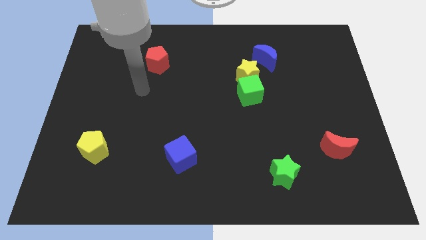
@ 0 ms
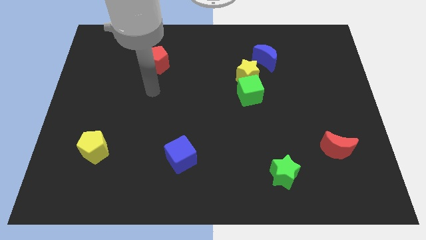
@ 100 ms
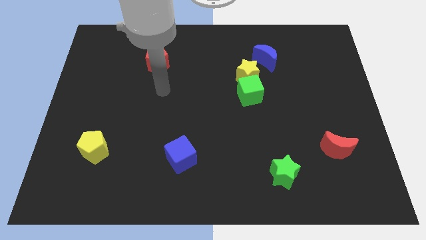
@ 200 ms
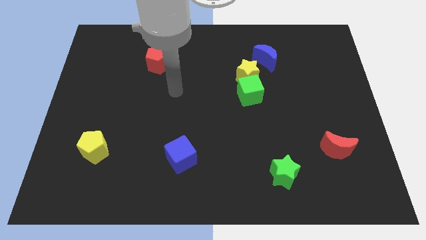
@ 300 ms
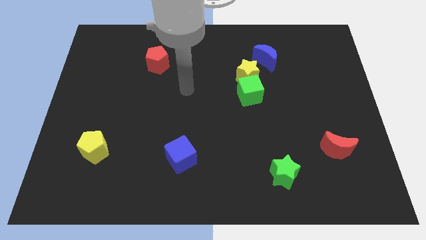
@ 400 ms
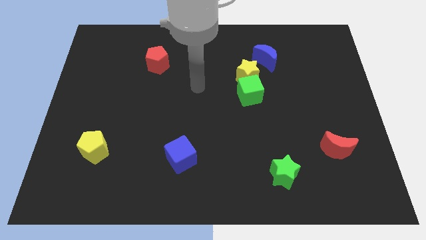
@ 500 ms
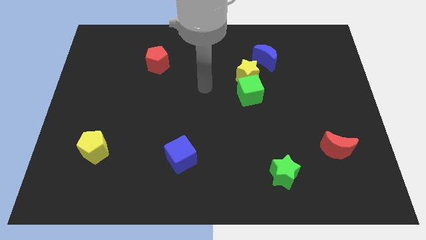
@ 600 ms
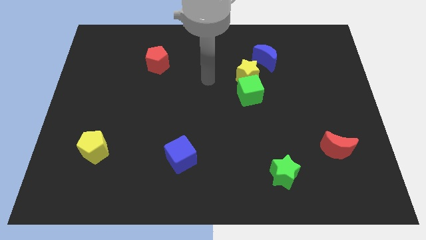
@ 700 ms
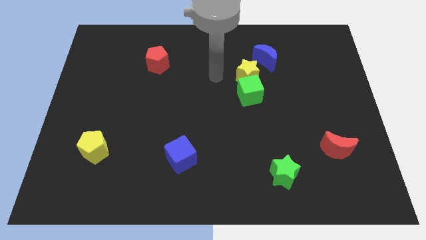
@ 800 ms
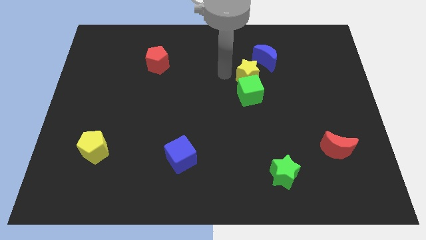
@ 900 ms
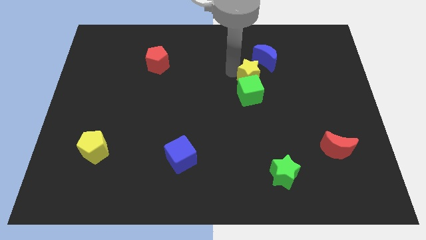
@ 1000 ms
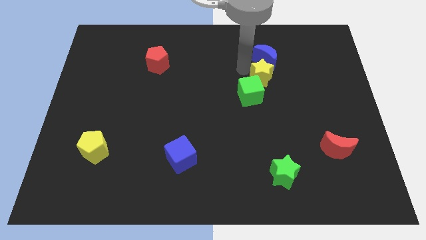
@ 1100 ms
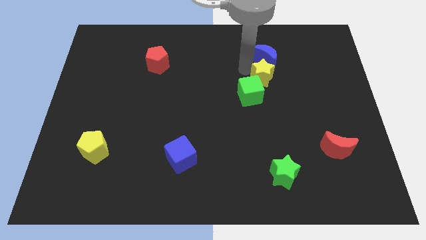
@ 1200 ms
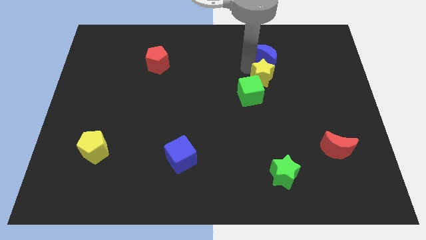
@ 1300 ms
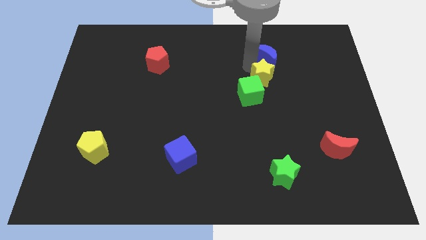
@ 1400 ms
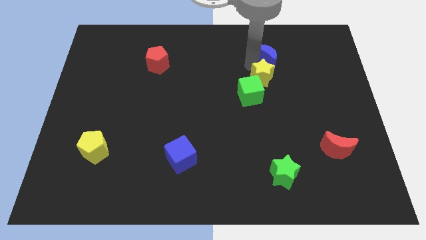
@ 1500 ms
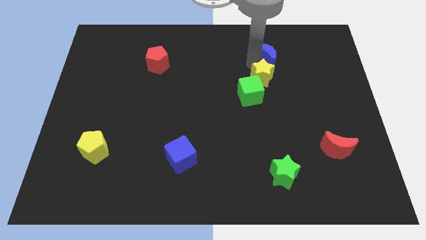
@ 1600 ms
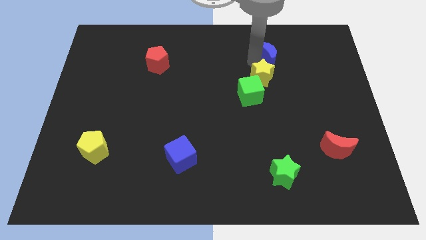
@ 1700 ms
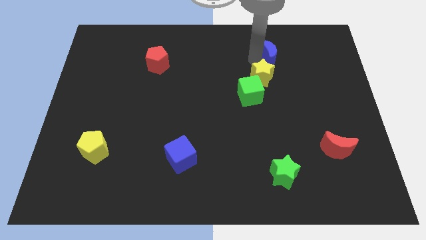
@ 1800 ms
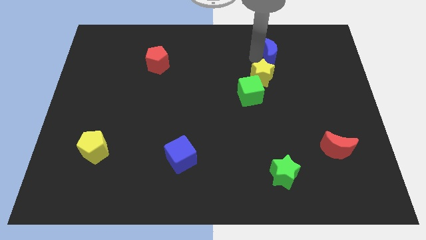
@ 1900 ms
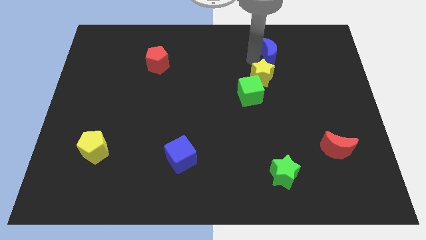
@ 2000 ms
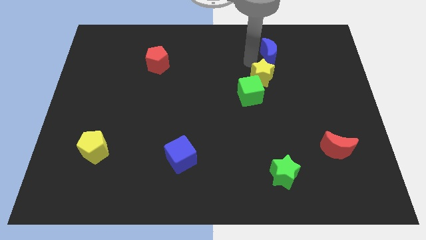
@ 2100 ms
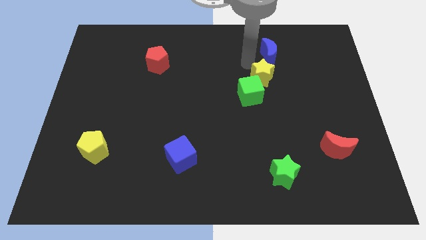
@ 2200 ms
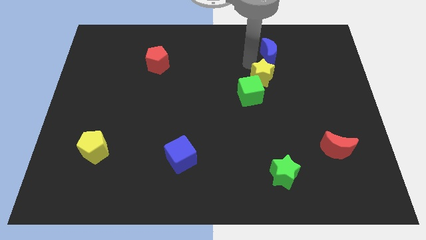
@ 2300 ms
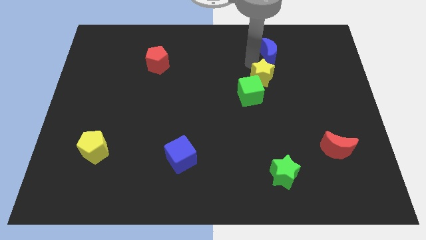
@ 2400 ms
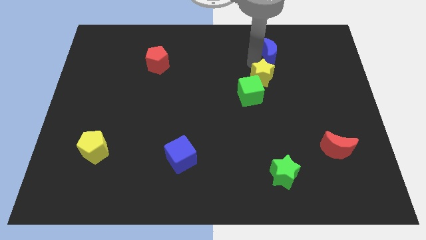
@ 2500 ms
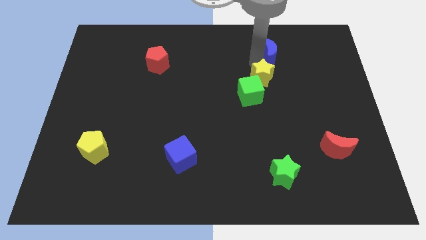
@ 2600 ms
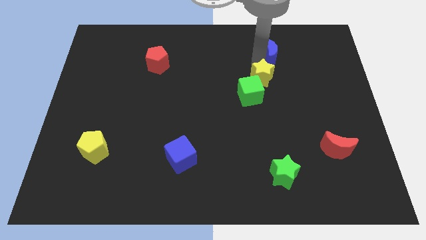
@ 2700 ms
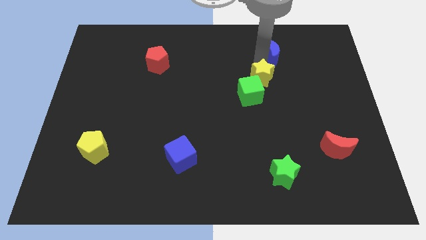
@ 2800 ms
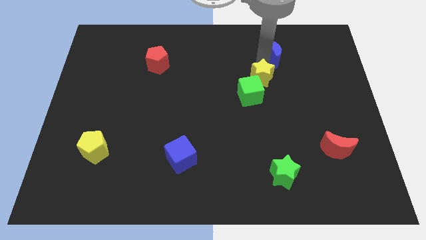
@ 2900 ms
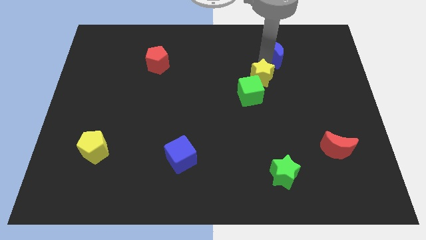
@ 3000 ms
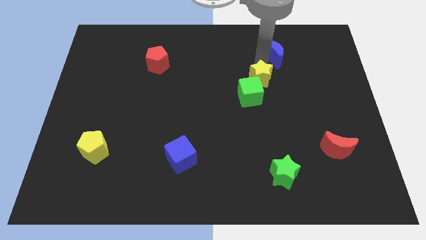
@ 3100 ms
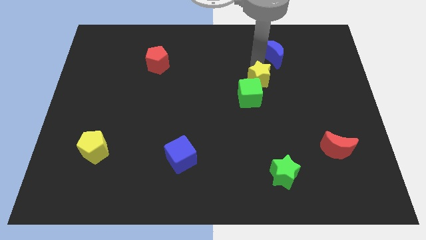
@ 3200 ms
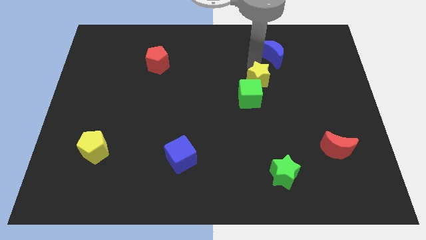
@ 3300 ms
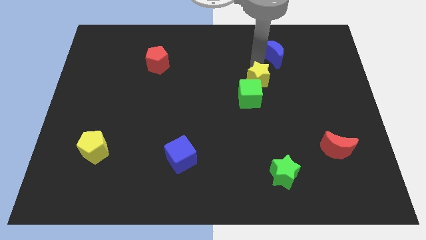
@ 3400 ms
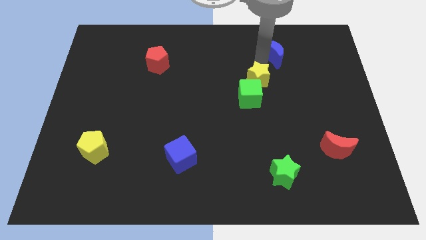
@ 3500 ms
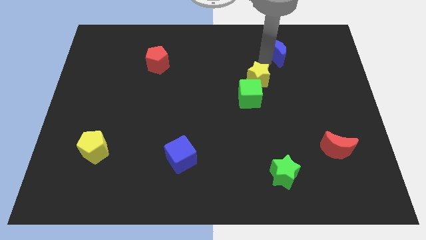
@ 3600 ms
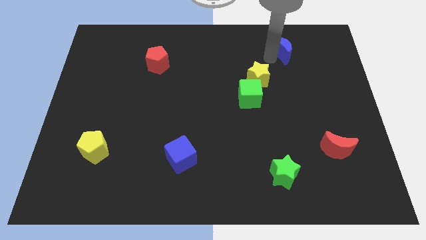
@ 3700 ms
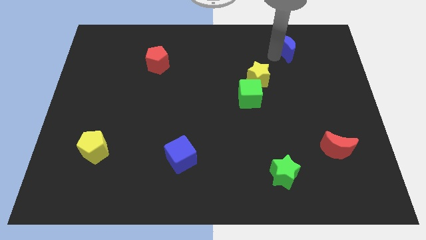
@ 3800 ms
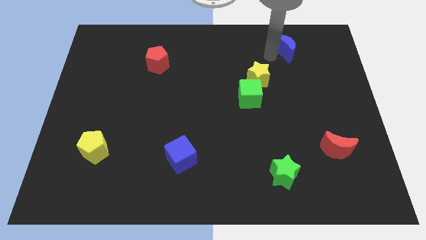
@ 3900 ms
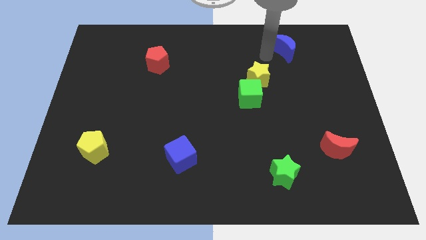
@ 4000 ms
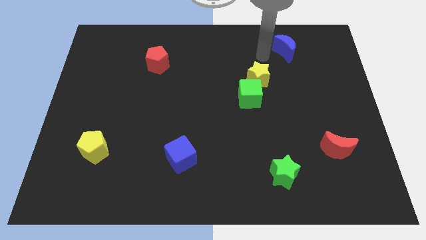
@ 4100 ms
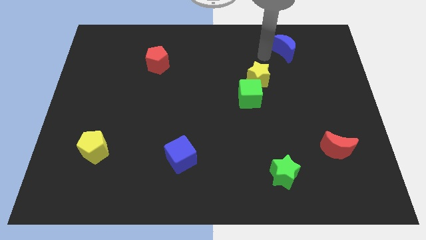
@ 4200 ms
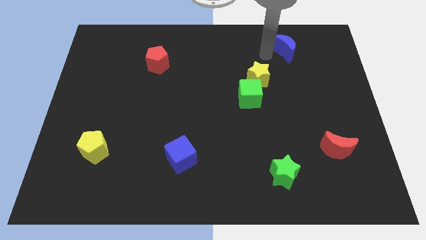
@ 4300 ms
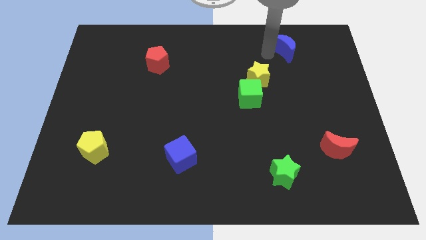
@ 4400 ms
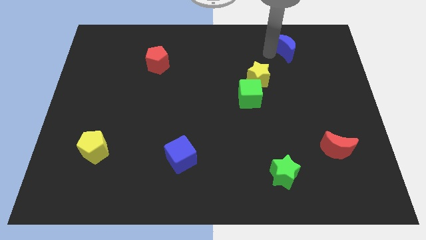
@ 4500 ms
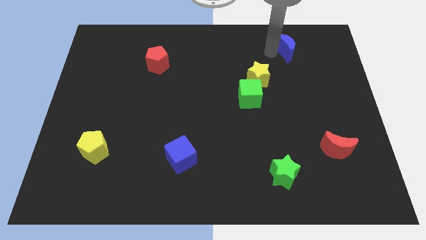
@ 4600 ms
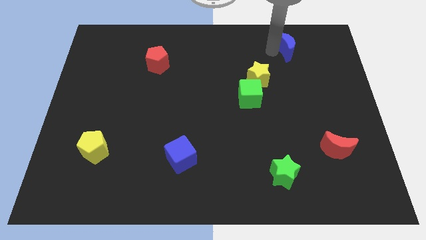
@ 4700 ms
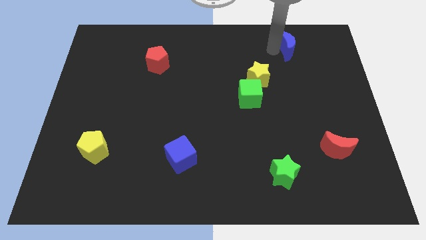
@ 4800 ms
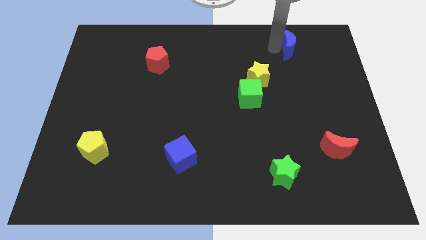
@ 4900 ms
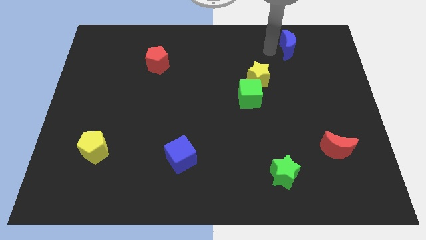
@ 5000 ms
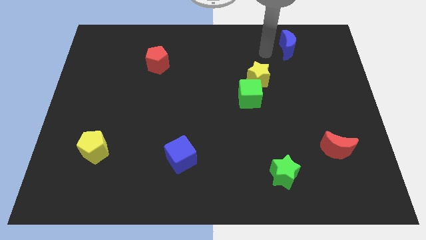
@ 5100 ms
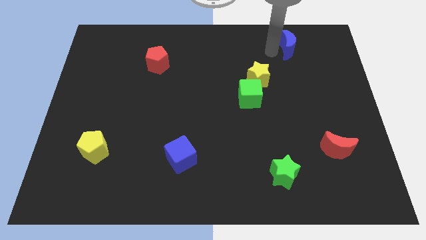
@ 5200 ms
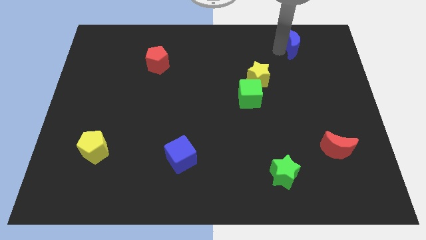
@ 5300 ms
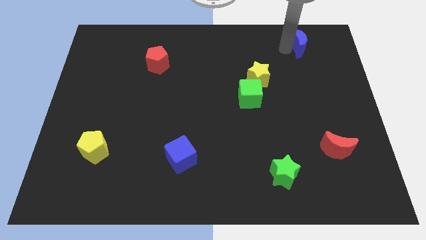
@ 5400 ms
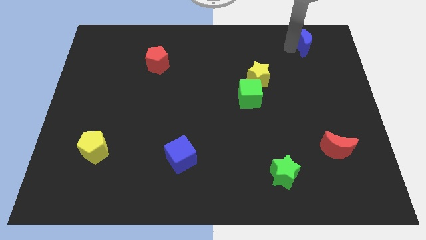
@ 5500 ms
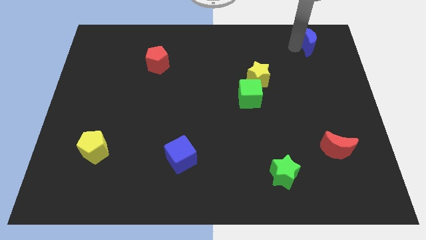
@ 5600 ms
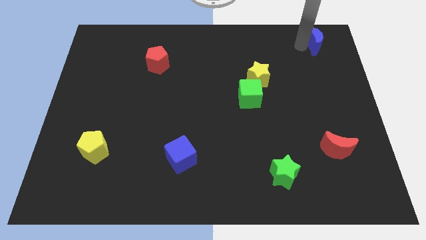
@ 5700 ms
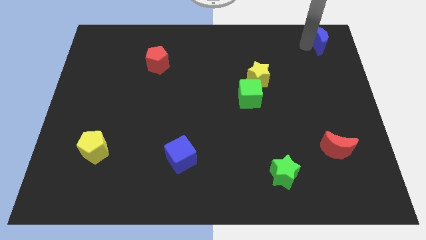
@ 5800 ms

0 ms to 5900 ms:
put the blue moon to the top right of the board

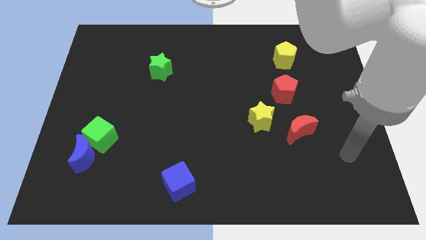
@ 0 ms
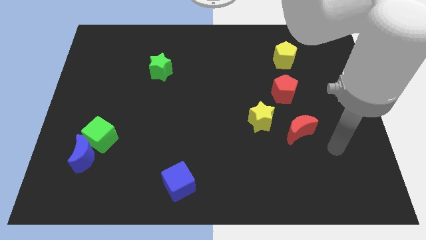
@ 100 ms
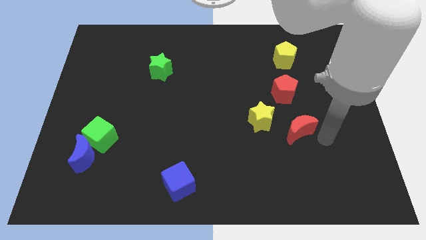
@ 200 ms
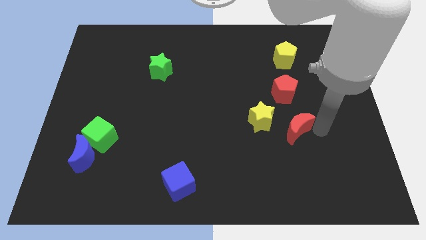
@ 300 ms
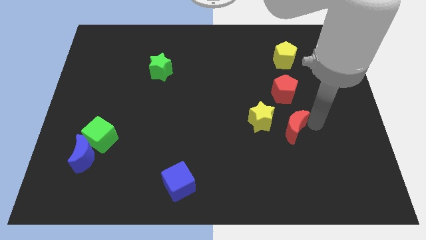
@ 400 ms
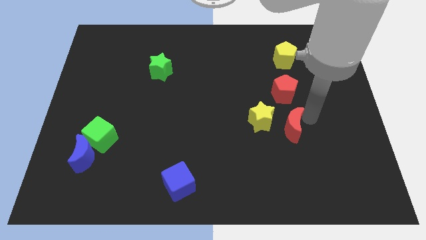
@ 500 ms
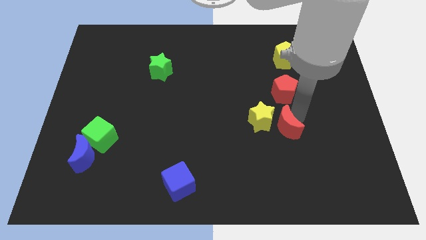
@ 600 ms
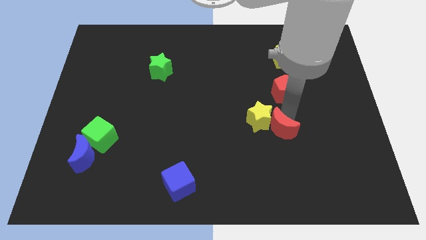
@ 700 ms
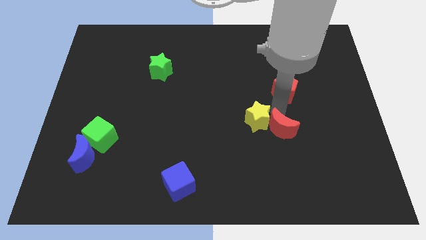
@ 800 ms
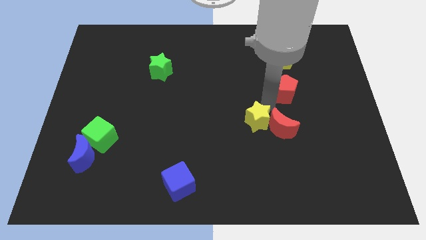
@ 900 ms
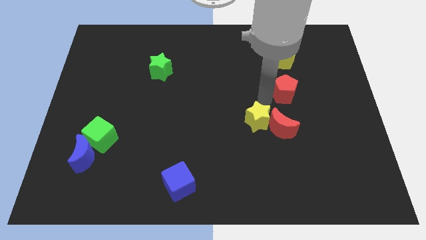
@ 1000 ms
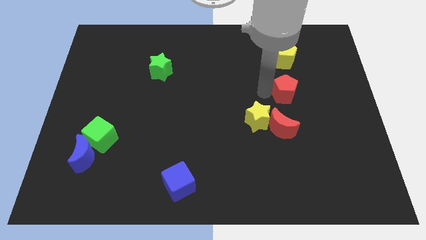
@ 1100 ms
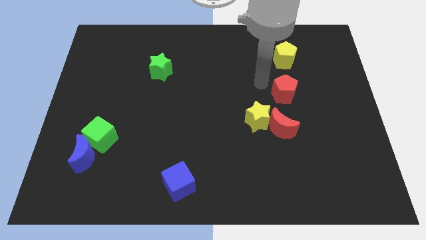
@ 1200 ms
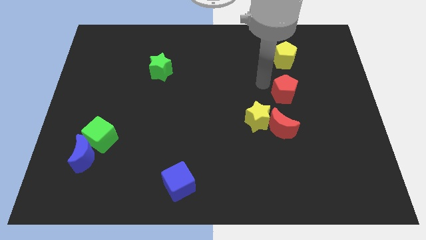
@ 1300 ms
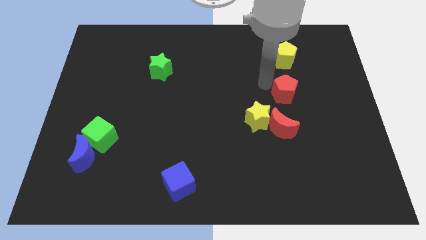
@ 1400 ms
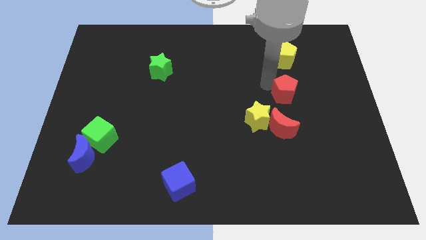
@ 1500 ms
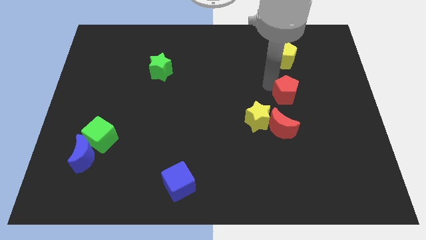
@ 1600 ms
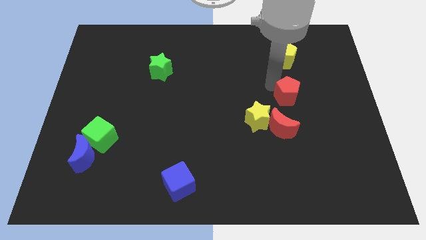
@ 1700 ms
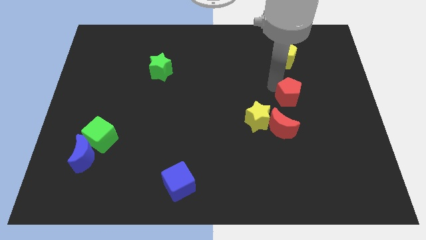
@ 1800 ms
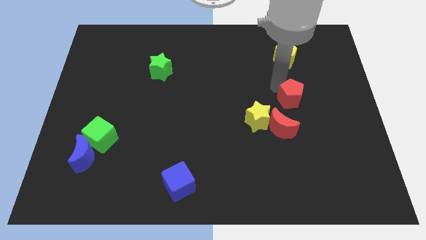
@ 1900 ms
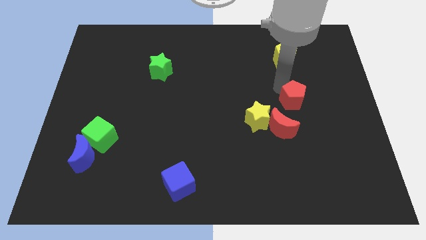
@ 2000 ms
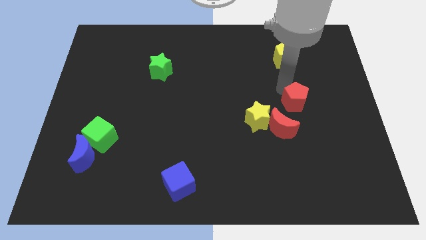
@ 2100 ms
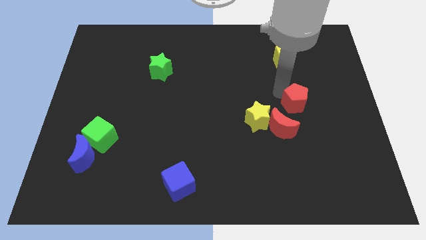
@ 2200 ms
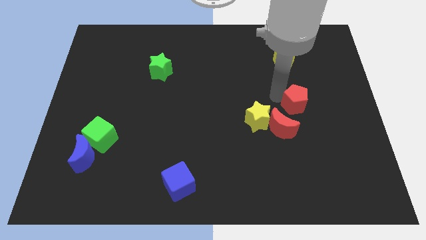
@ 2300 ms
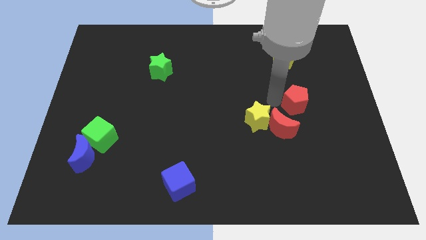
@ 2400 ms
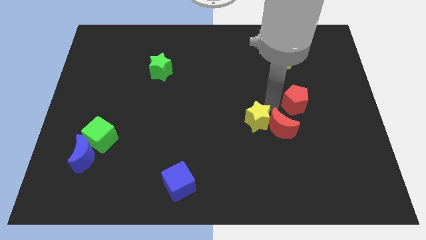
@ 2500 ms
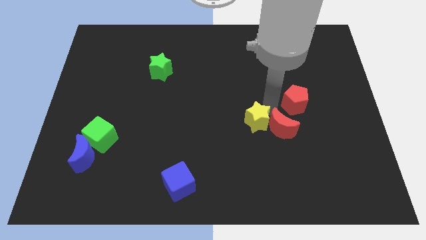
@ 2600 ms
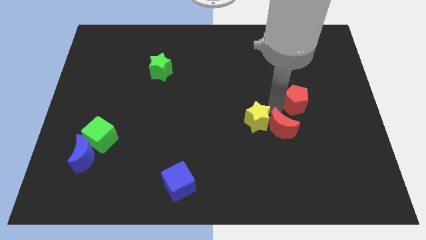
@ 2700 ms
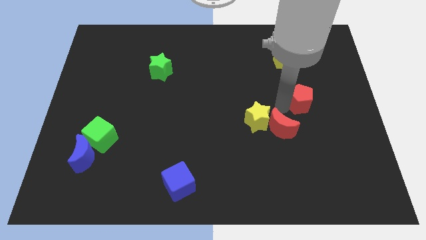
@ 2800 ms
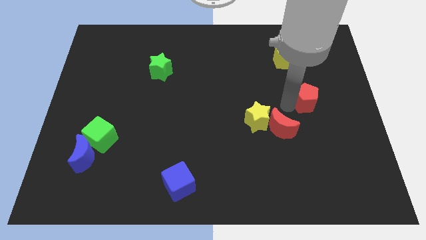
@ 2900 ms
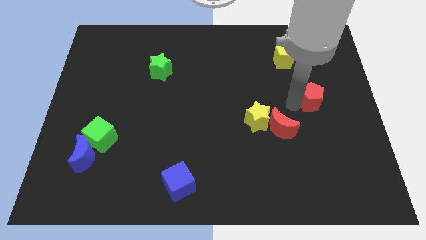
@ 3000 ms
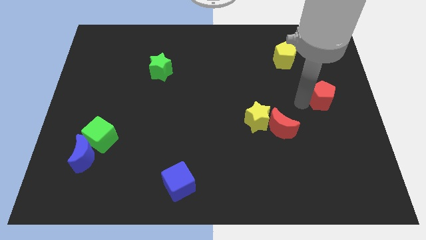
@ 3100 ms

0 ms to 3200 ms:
put the red pentagon to the center right
